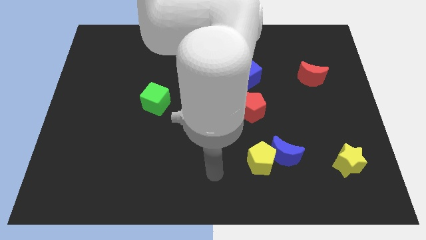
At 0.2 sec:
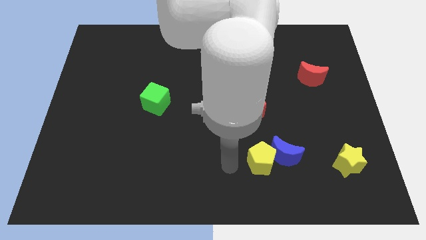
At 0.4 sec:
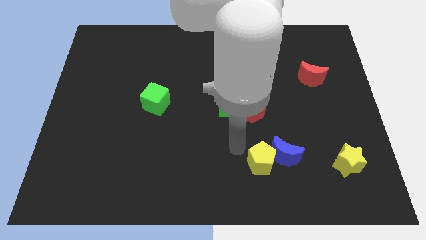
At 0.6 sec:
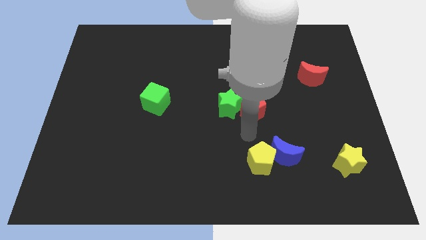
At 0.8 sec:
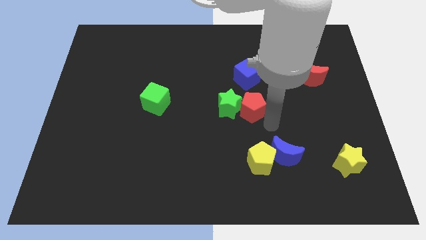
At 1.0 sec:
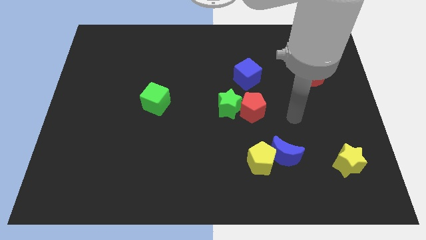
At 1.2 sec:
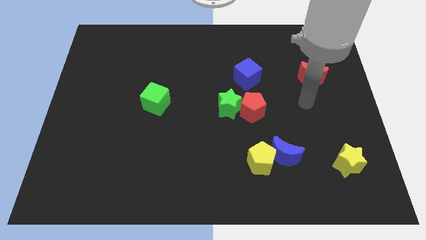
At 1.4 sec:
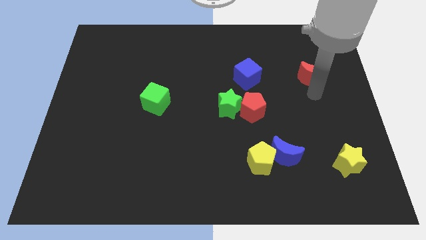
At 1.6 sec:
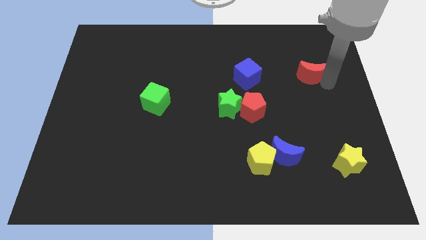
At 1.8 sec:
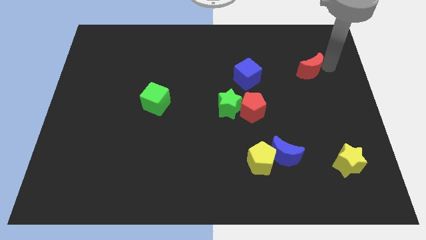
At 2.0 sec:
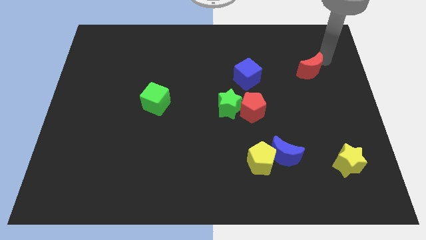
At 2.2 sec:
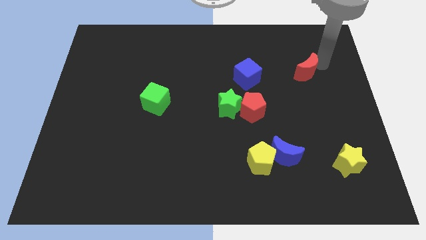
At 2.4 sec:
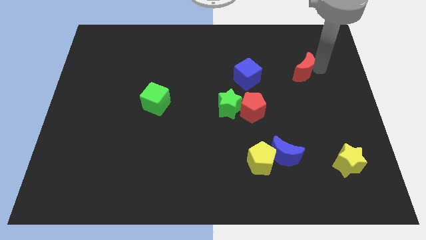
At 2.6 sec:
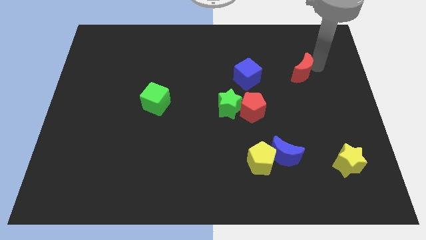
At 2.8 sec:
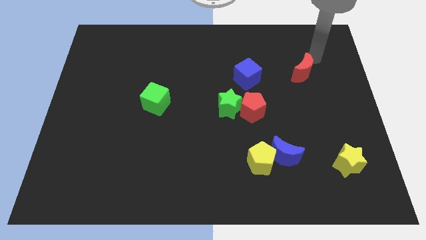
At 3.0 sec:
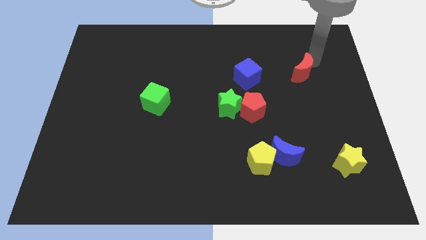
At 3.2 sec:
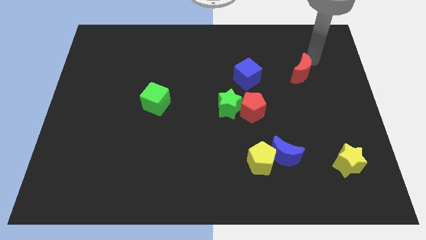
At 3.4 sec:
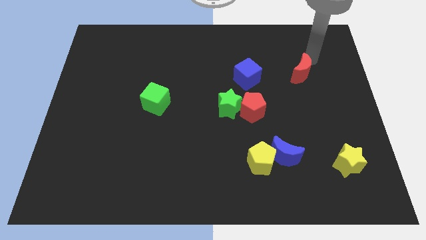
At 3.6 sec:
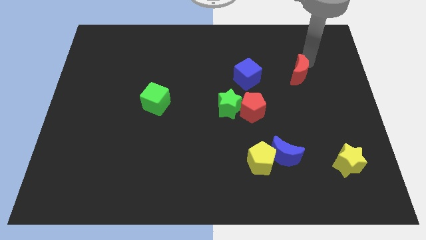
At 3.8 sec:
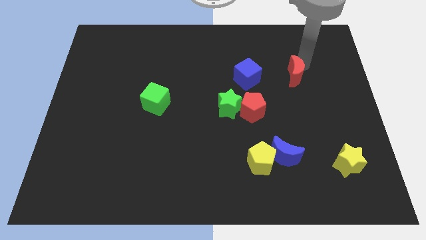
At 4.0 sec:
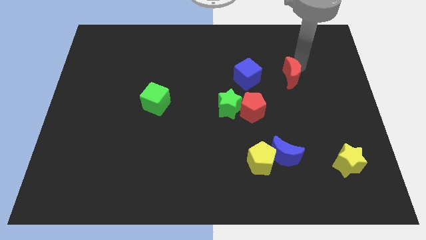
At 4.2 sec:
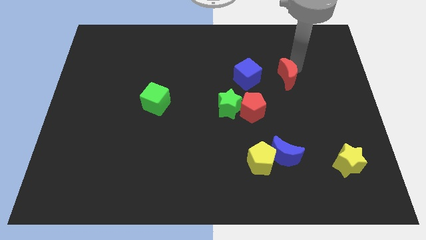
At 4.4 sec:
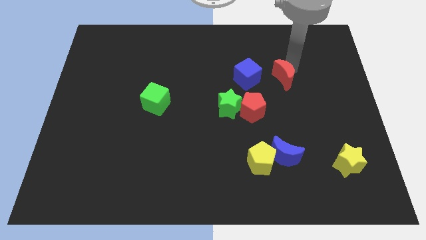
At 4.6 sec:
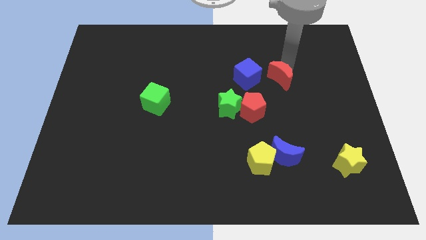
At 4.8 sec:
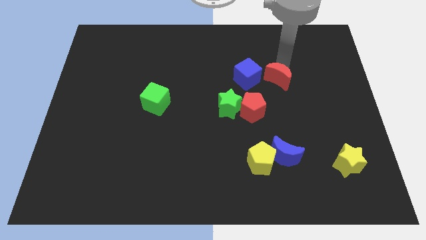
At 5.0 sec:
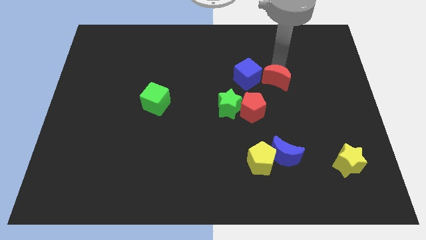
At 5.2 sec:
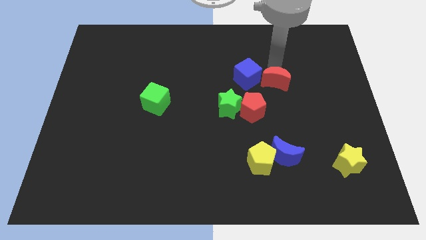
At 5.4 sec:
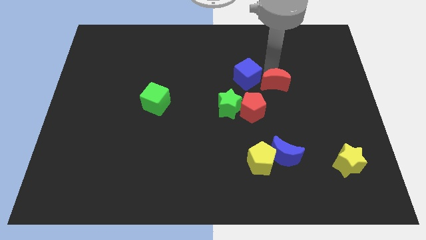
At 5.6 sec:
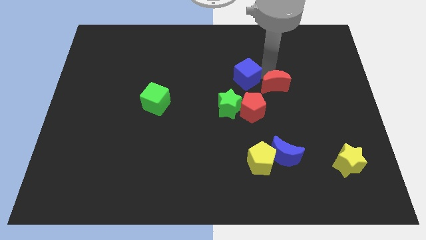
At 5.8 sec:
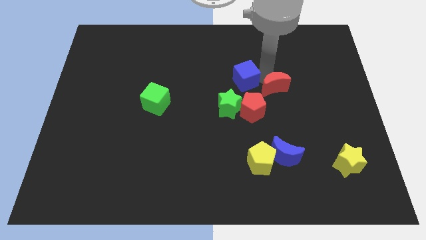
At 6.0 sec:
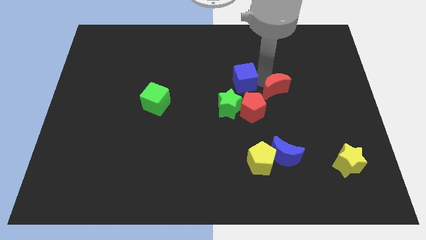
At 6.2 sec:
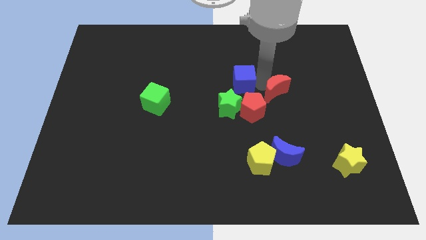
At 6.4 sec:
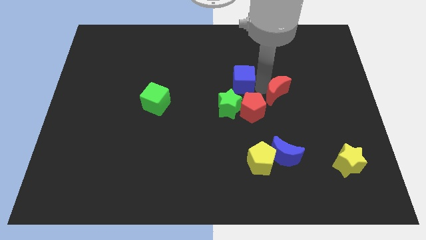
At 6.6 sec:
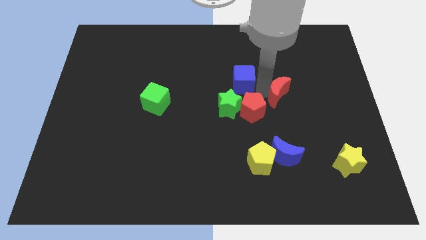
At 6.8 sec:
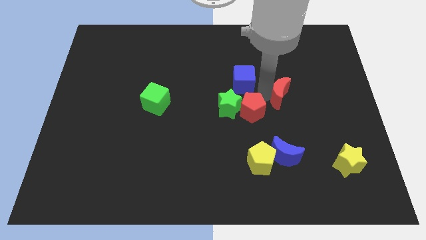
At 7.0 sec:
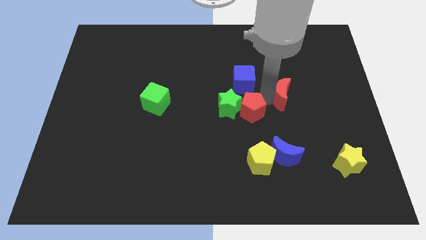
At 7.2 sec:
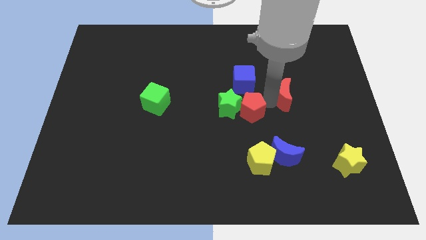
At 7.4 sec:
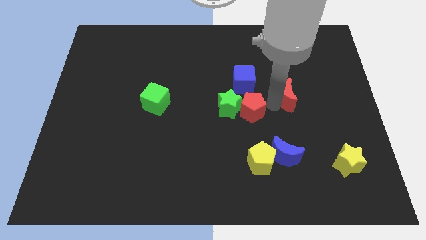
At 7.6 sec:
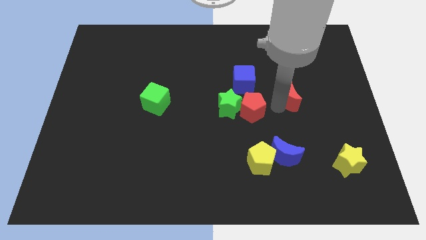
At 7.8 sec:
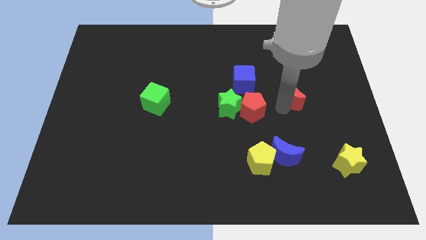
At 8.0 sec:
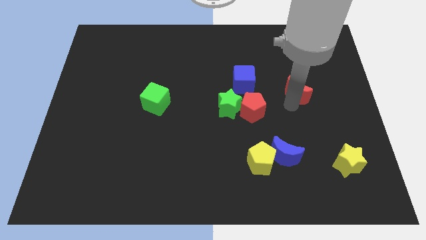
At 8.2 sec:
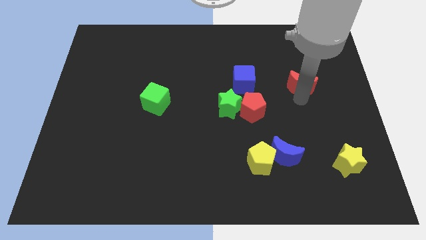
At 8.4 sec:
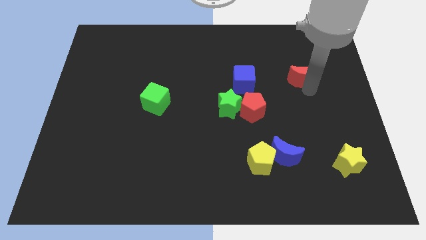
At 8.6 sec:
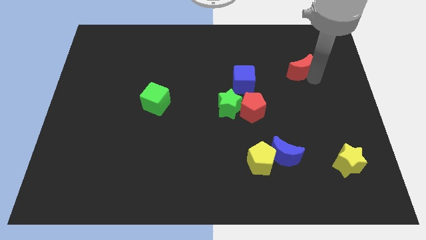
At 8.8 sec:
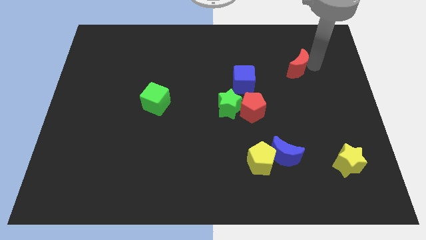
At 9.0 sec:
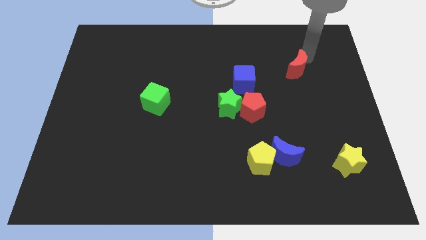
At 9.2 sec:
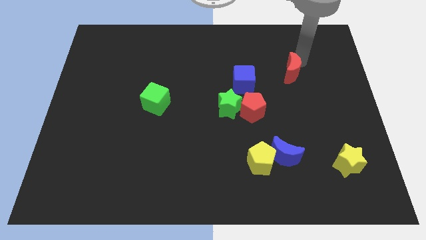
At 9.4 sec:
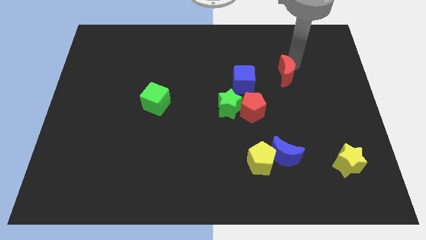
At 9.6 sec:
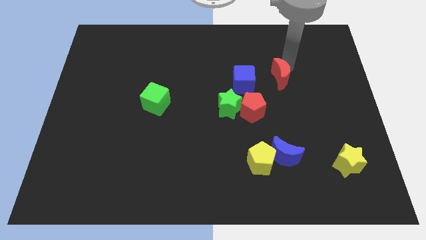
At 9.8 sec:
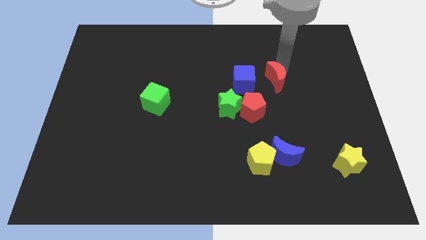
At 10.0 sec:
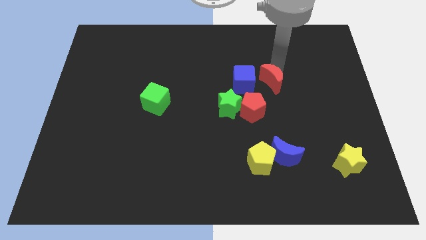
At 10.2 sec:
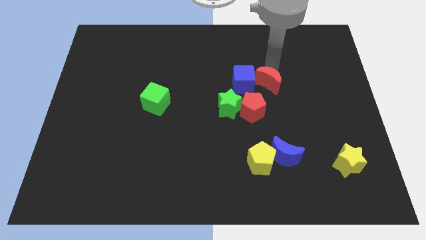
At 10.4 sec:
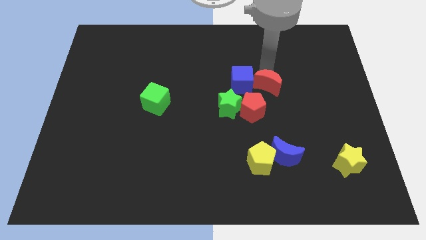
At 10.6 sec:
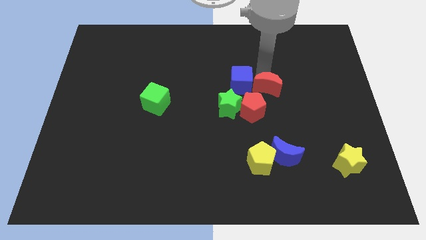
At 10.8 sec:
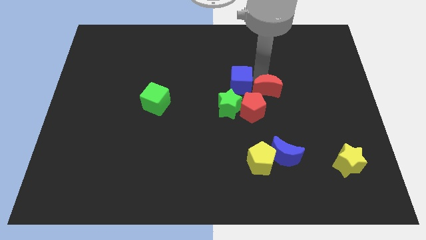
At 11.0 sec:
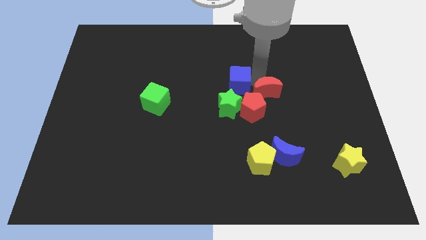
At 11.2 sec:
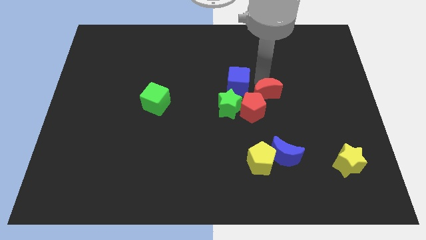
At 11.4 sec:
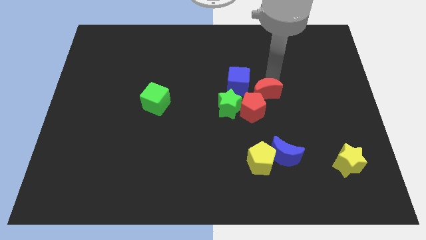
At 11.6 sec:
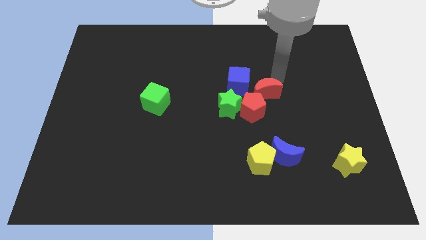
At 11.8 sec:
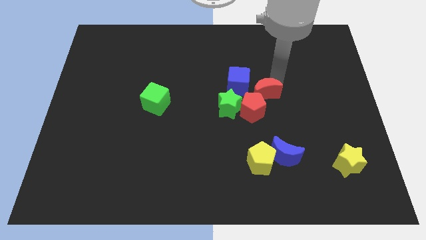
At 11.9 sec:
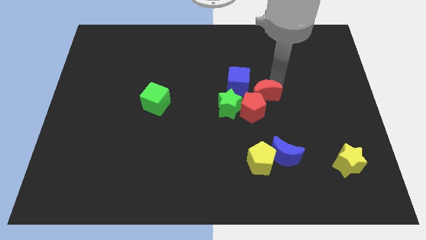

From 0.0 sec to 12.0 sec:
put the red moon towards the red pentagon

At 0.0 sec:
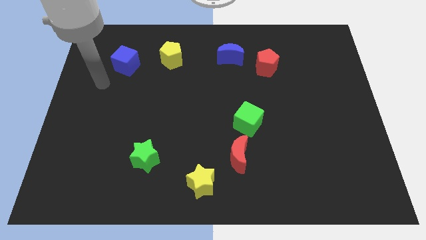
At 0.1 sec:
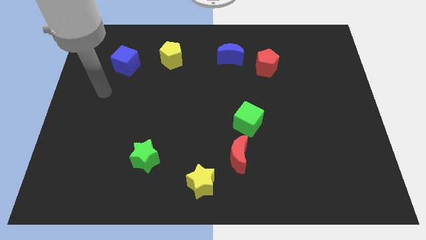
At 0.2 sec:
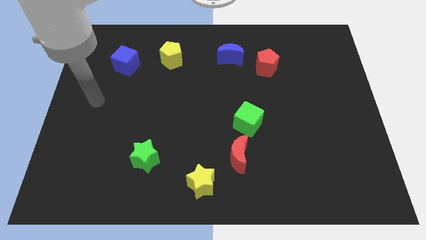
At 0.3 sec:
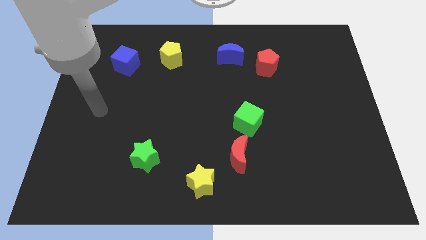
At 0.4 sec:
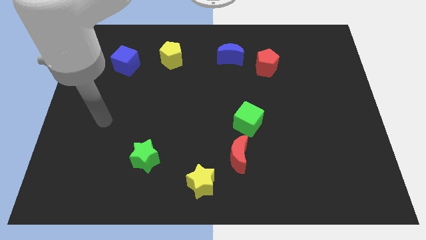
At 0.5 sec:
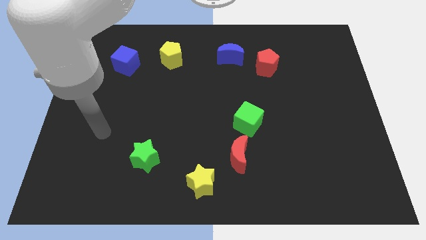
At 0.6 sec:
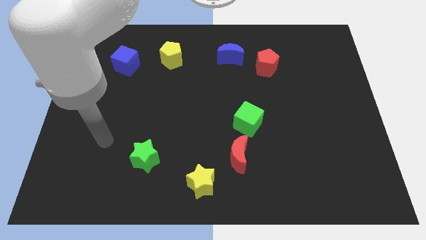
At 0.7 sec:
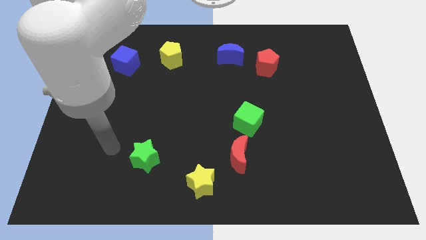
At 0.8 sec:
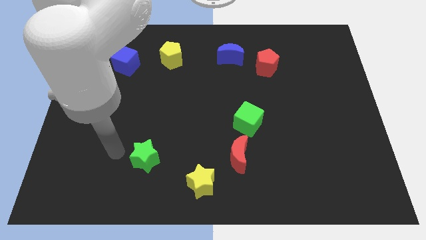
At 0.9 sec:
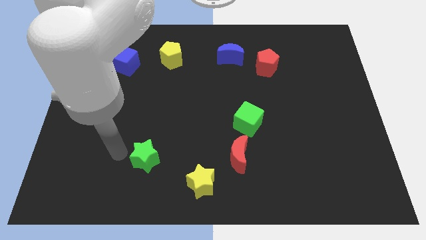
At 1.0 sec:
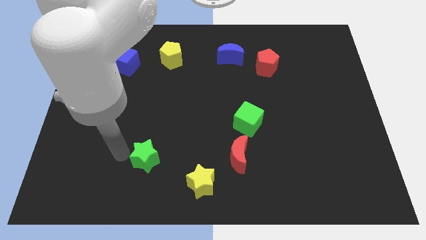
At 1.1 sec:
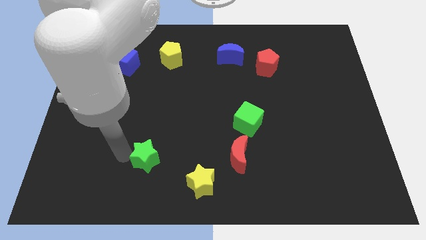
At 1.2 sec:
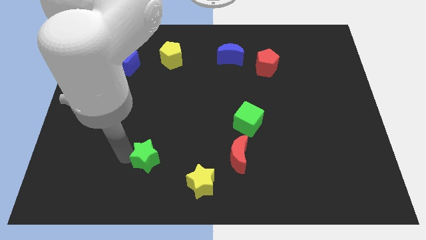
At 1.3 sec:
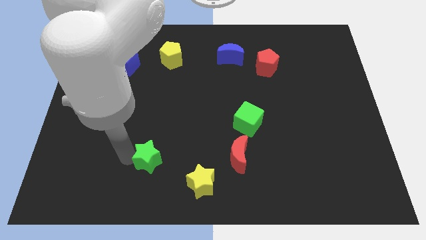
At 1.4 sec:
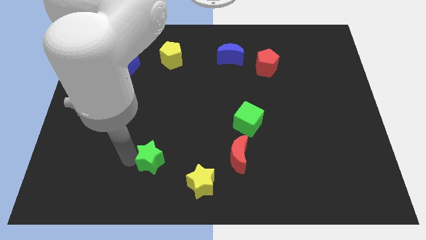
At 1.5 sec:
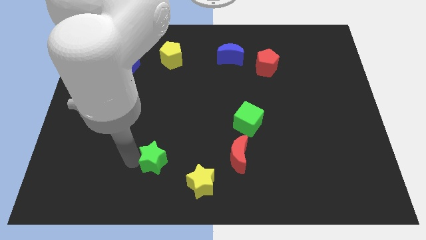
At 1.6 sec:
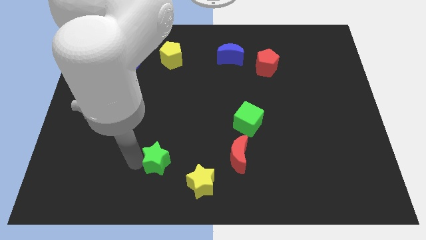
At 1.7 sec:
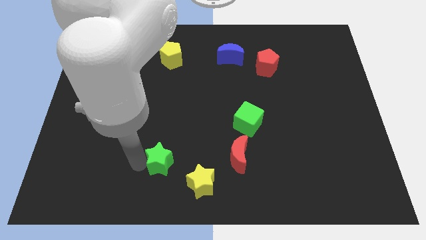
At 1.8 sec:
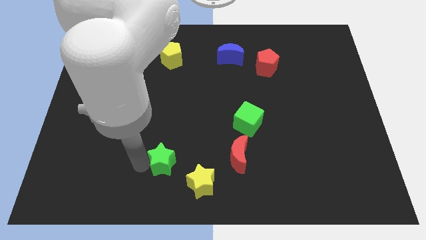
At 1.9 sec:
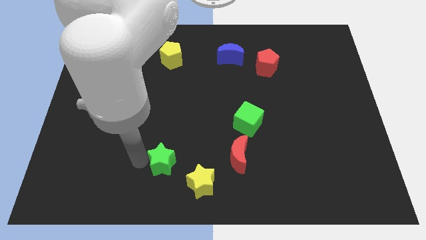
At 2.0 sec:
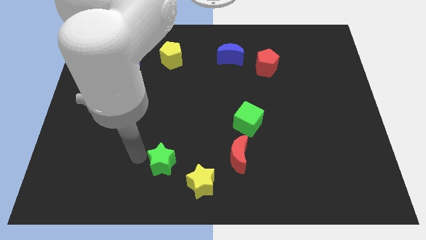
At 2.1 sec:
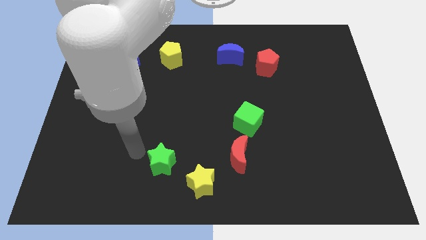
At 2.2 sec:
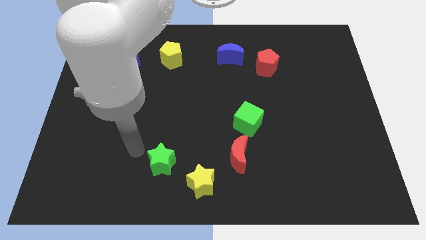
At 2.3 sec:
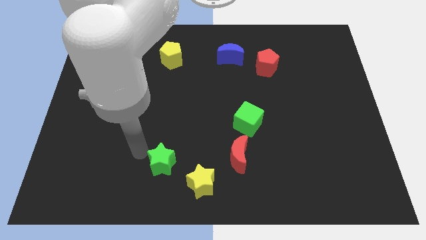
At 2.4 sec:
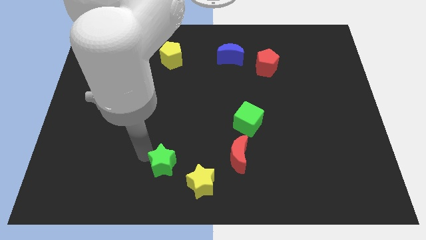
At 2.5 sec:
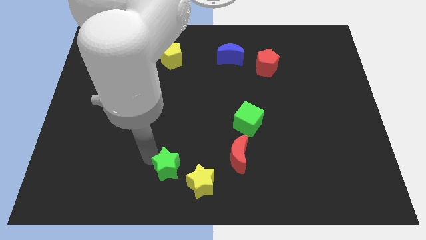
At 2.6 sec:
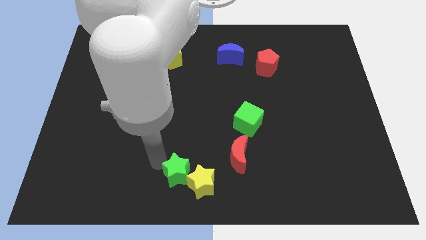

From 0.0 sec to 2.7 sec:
put the green star next to the yellow star
